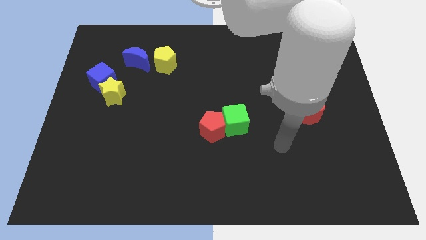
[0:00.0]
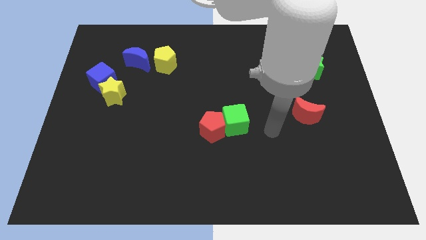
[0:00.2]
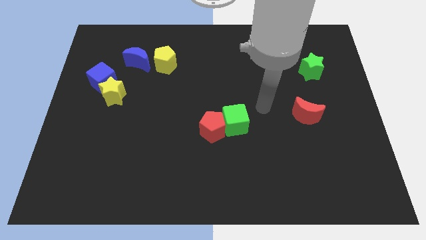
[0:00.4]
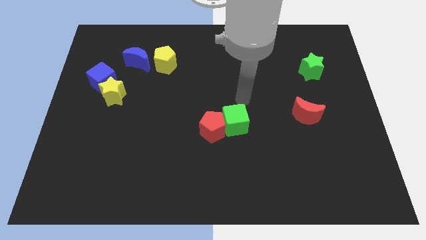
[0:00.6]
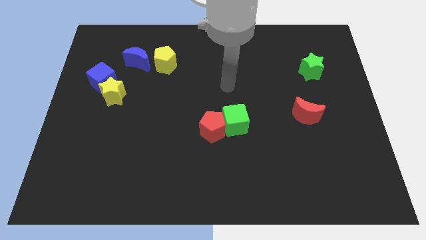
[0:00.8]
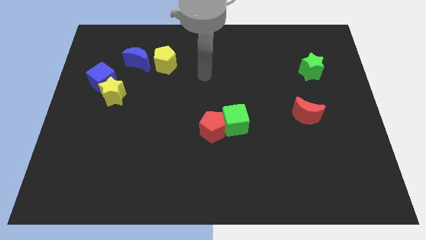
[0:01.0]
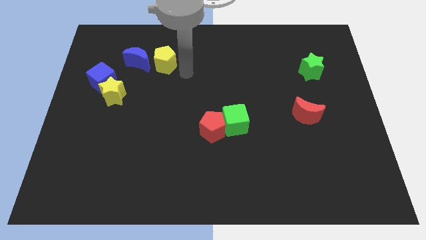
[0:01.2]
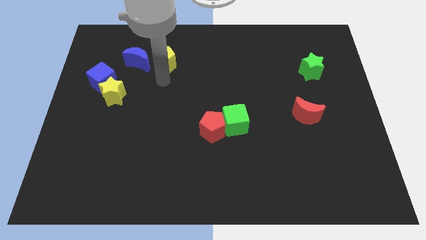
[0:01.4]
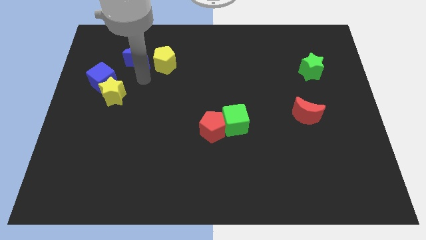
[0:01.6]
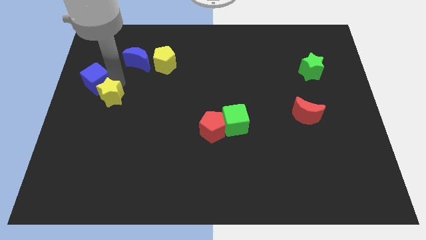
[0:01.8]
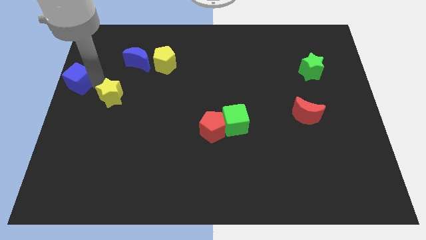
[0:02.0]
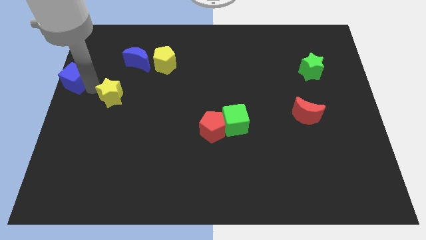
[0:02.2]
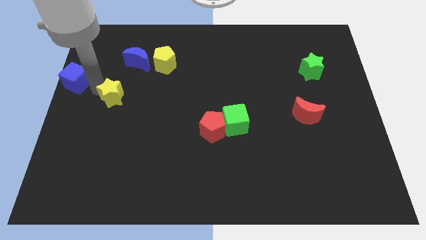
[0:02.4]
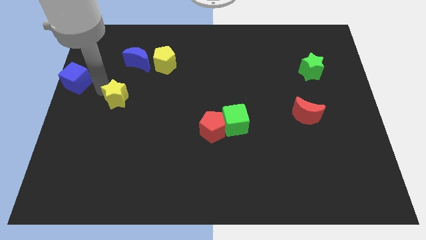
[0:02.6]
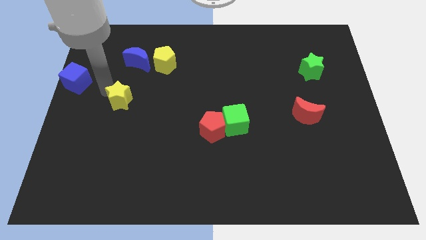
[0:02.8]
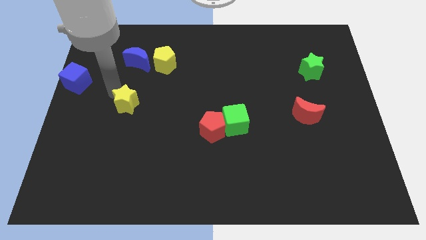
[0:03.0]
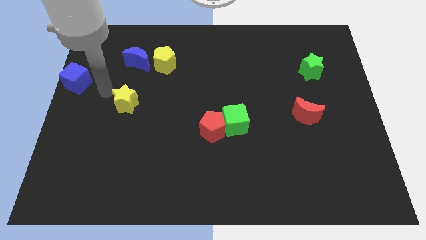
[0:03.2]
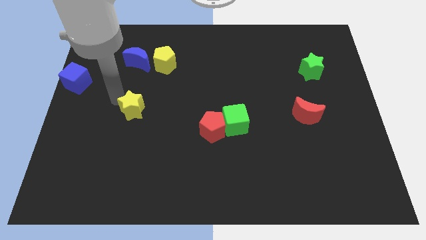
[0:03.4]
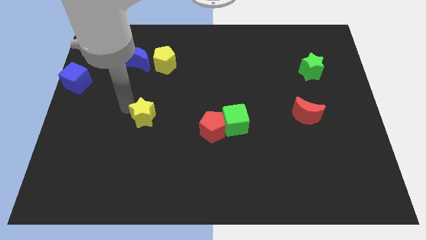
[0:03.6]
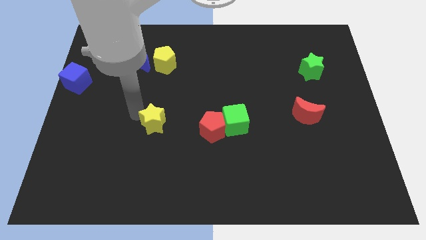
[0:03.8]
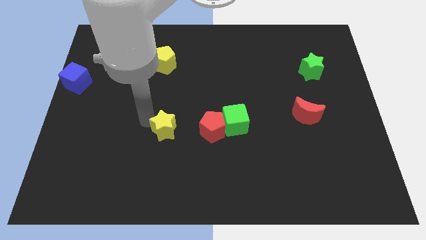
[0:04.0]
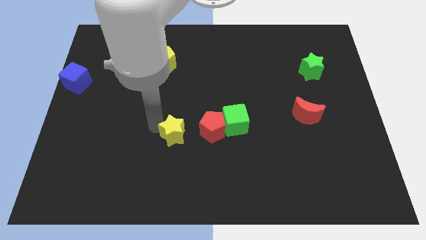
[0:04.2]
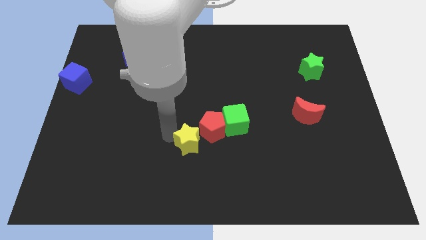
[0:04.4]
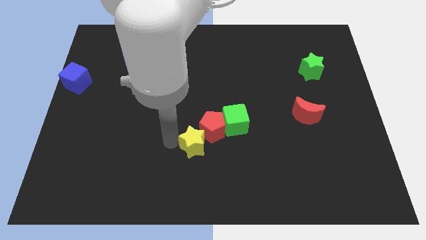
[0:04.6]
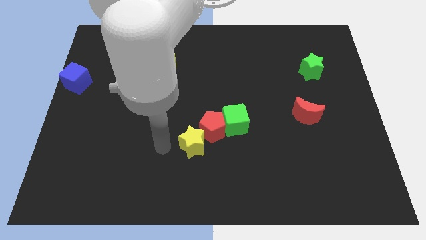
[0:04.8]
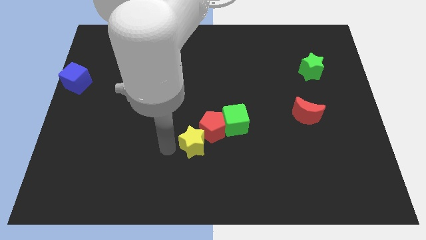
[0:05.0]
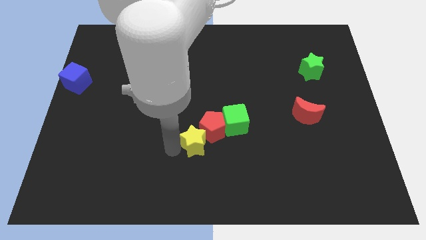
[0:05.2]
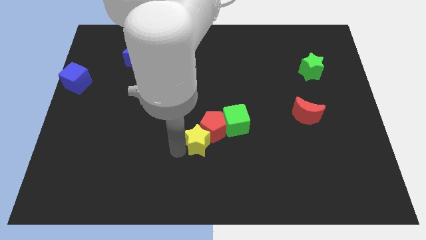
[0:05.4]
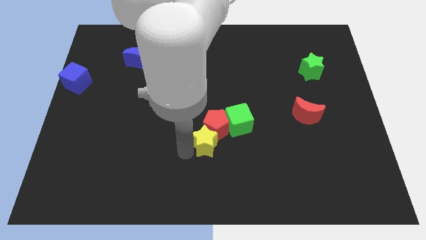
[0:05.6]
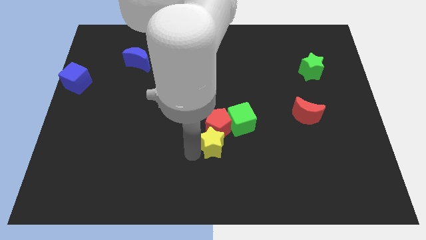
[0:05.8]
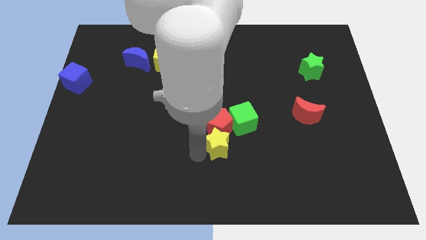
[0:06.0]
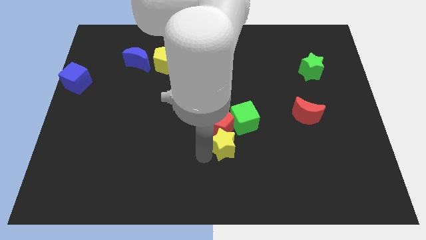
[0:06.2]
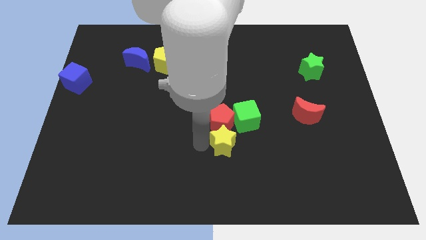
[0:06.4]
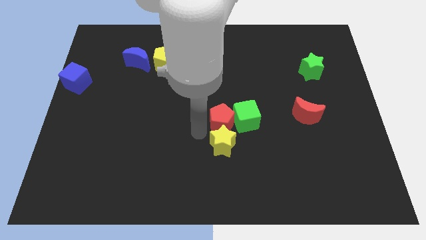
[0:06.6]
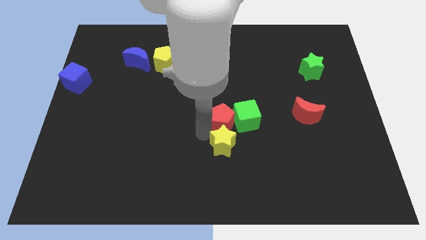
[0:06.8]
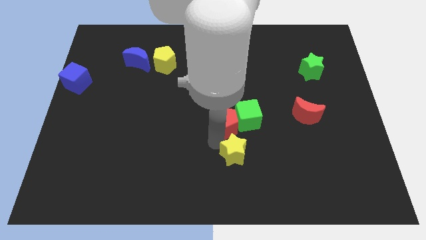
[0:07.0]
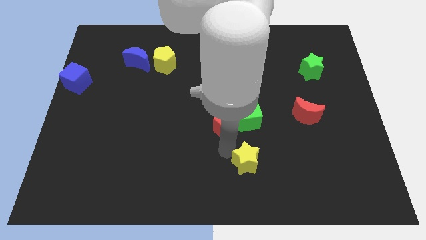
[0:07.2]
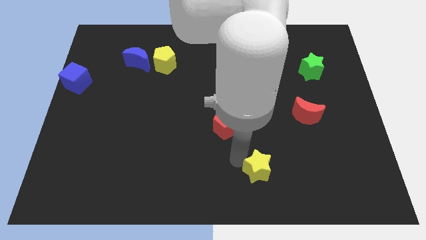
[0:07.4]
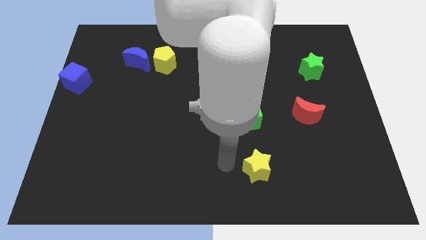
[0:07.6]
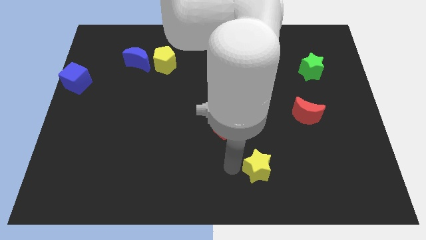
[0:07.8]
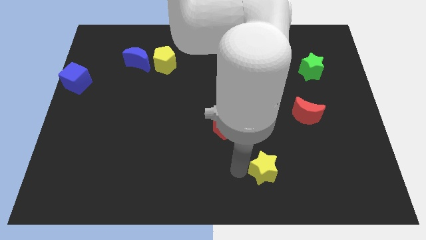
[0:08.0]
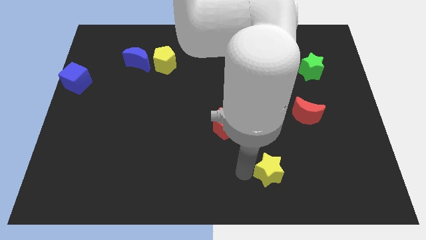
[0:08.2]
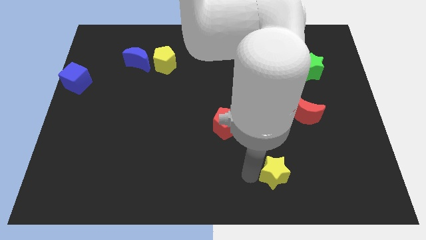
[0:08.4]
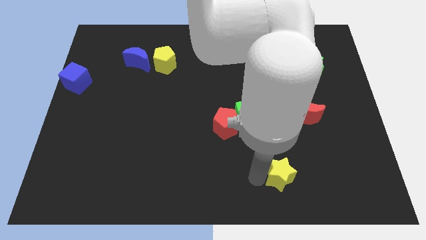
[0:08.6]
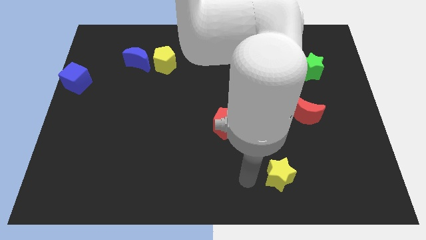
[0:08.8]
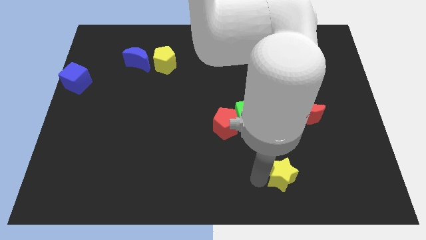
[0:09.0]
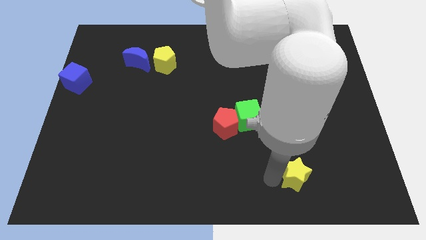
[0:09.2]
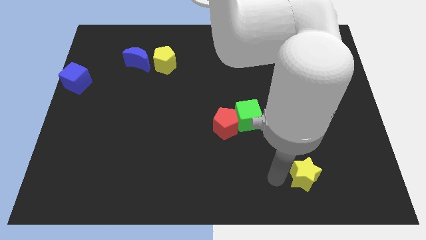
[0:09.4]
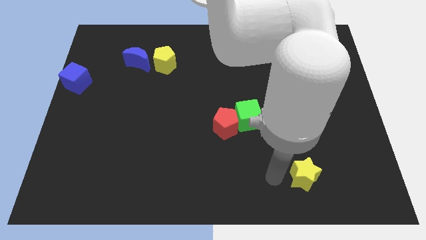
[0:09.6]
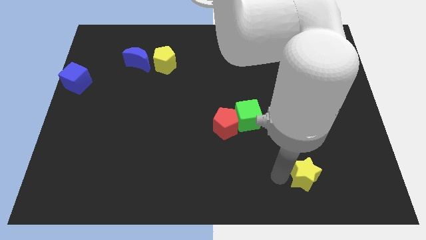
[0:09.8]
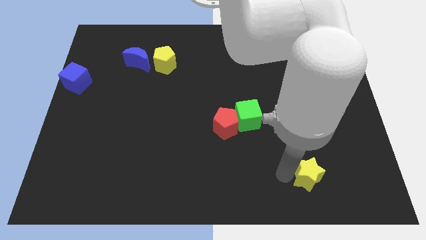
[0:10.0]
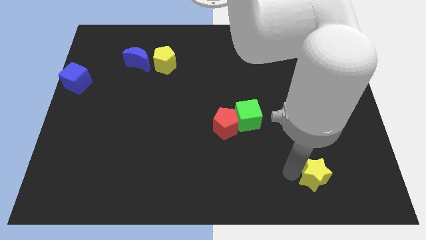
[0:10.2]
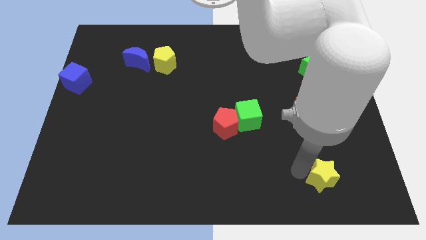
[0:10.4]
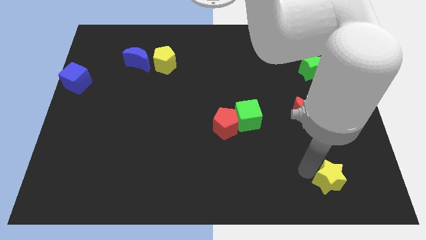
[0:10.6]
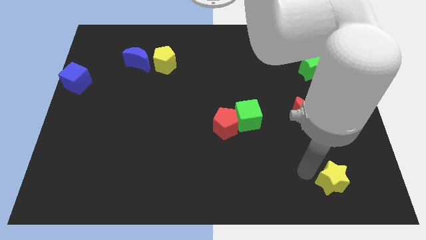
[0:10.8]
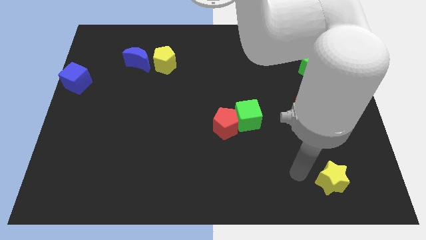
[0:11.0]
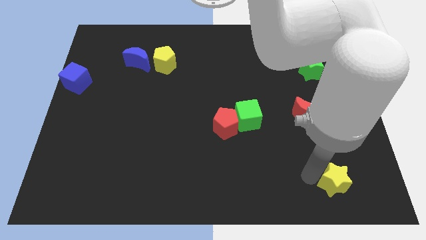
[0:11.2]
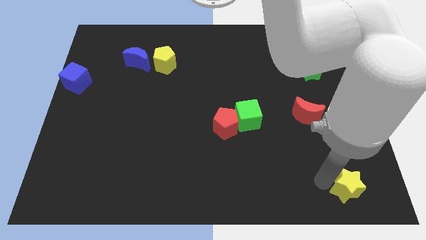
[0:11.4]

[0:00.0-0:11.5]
slide the yellow star to the bottom right of the board
